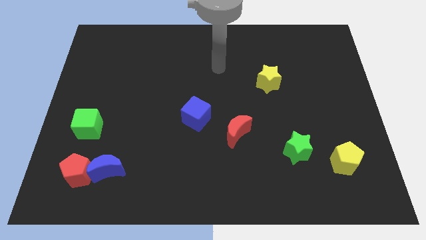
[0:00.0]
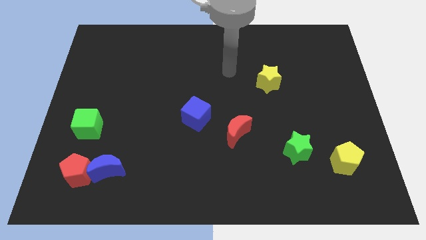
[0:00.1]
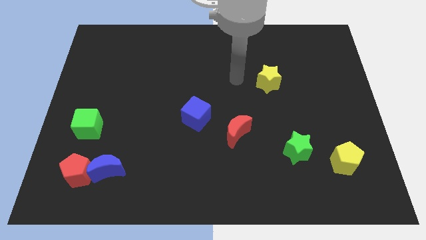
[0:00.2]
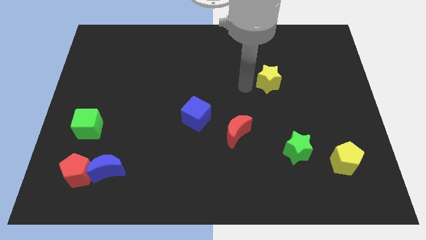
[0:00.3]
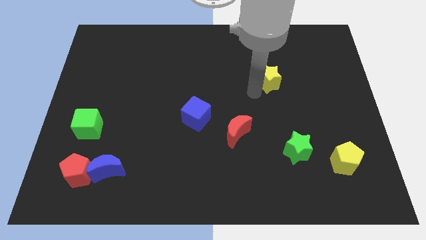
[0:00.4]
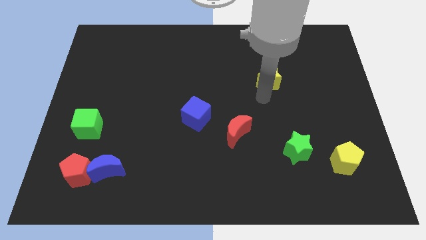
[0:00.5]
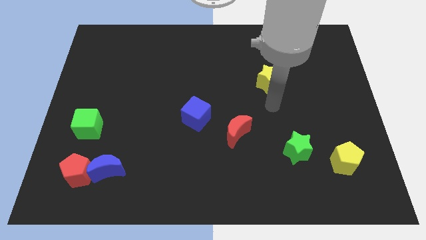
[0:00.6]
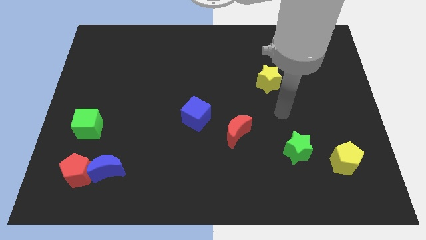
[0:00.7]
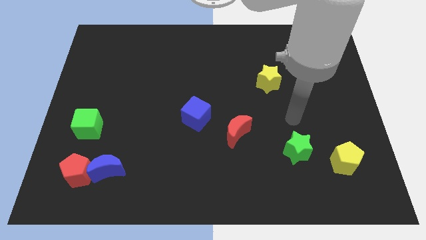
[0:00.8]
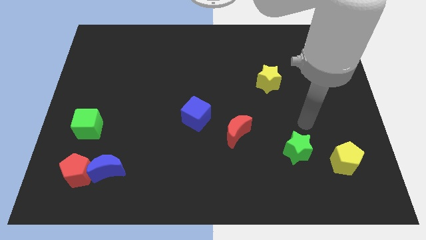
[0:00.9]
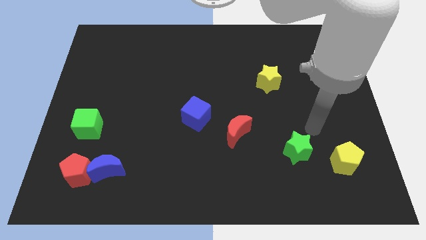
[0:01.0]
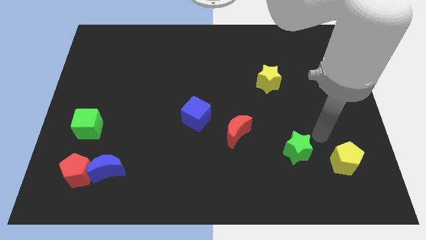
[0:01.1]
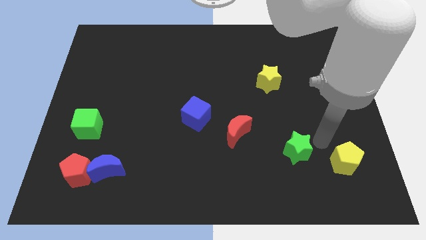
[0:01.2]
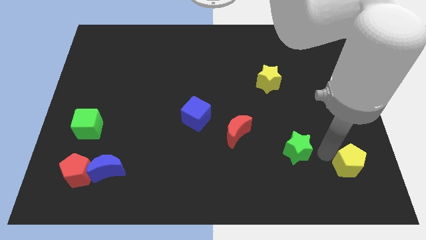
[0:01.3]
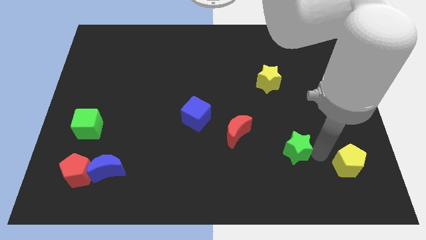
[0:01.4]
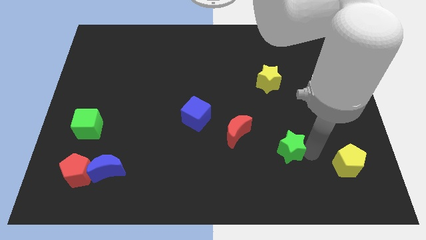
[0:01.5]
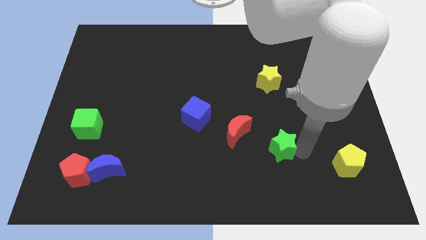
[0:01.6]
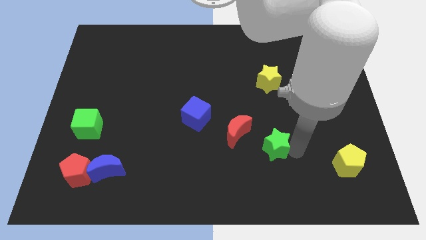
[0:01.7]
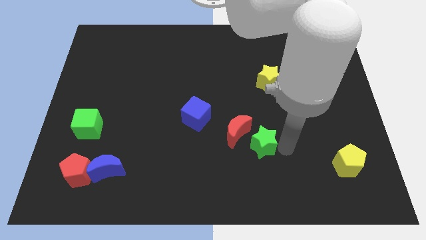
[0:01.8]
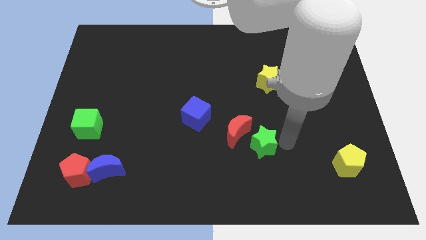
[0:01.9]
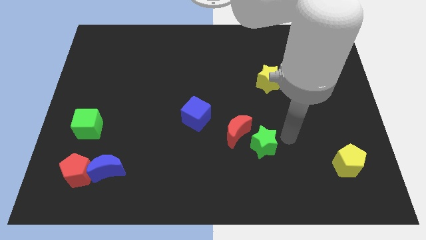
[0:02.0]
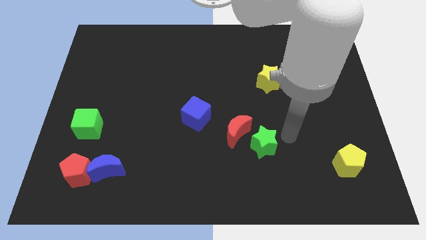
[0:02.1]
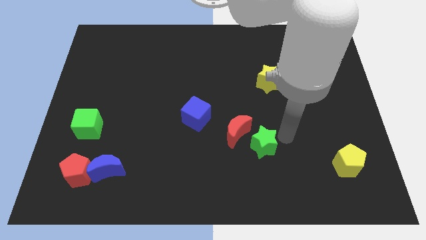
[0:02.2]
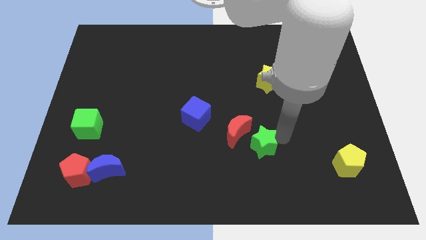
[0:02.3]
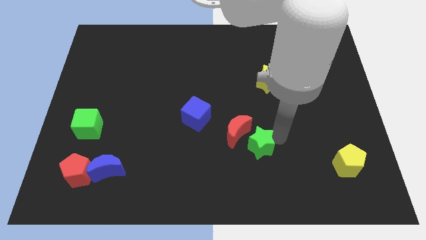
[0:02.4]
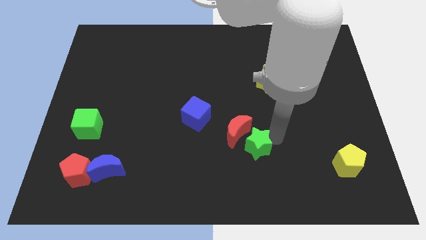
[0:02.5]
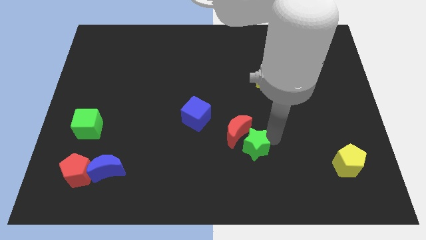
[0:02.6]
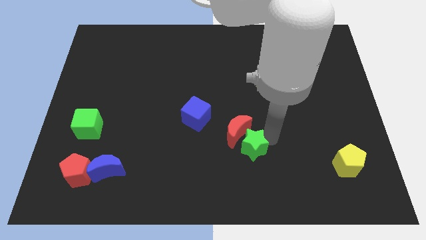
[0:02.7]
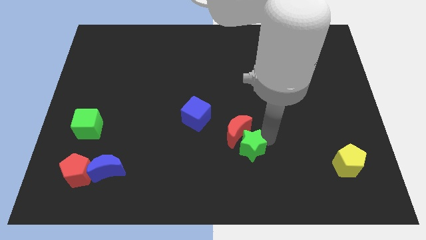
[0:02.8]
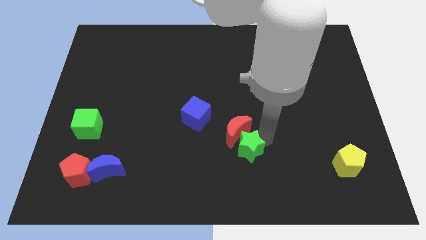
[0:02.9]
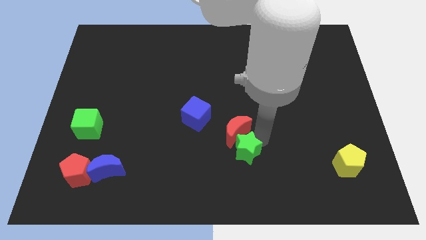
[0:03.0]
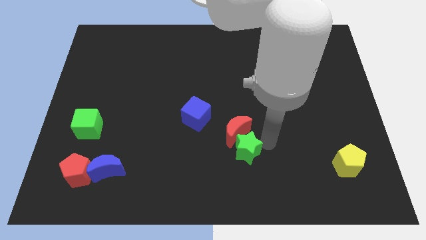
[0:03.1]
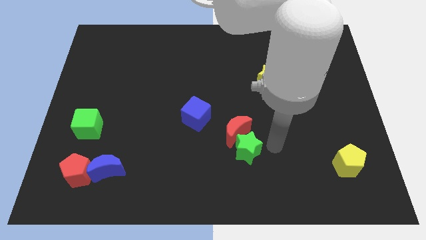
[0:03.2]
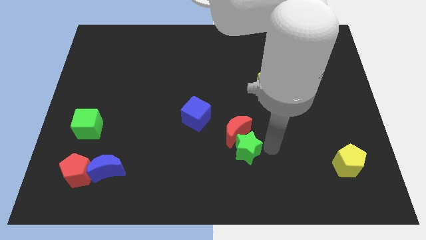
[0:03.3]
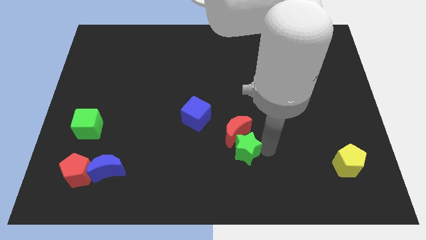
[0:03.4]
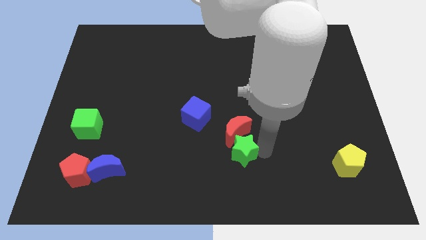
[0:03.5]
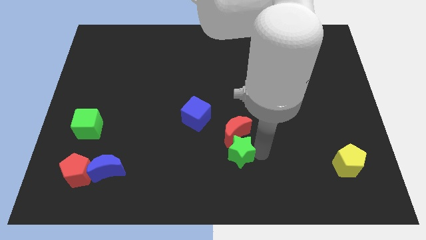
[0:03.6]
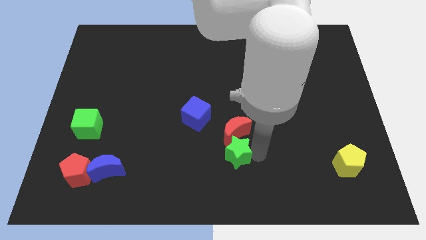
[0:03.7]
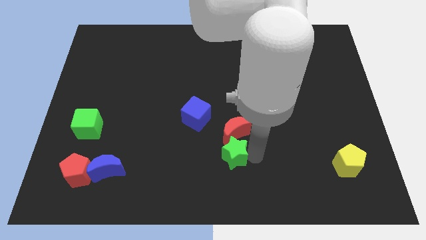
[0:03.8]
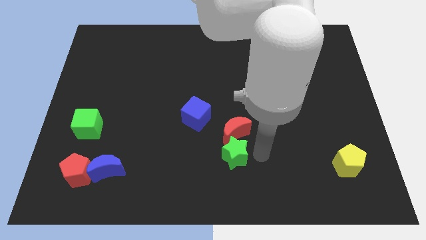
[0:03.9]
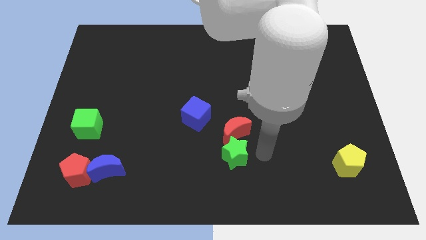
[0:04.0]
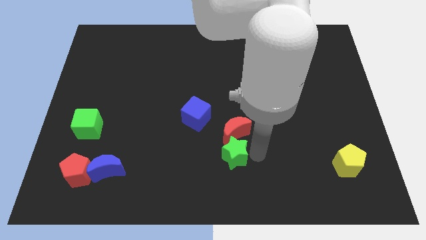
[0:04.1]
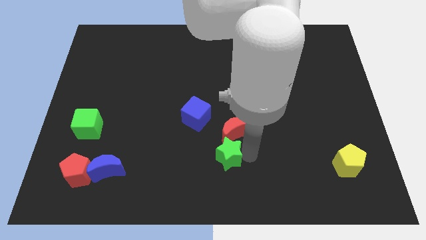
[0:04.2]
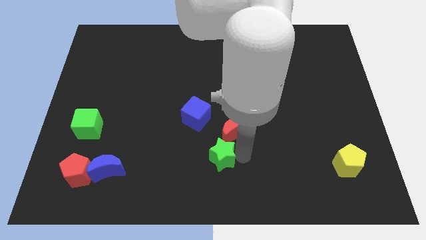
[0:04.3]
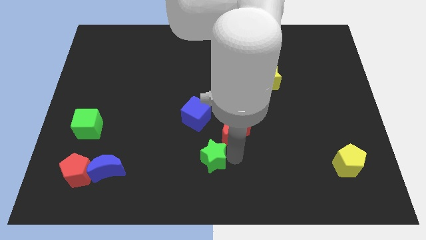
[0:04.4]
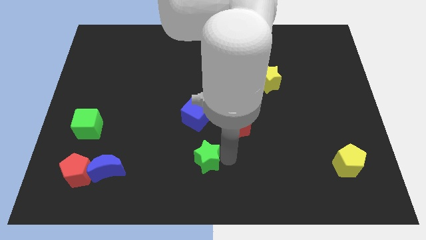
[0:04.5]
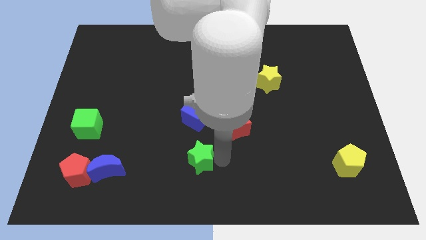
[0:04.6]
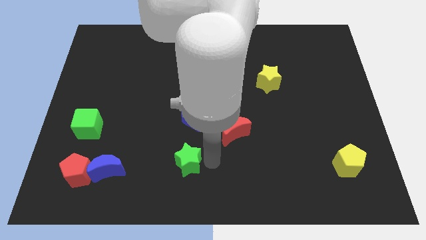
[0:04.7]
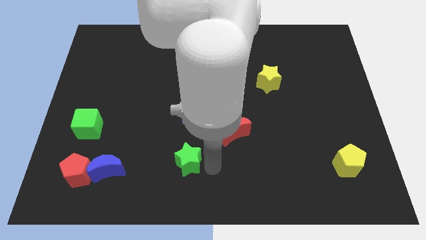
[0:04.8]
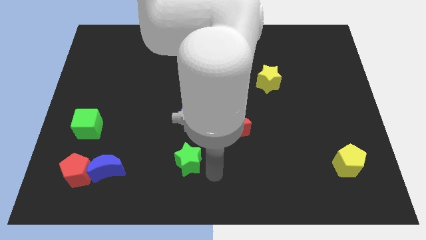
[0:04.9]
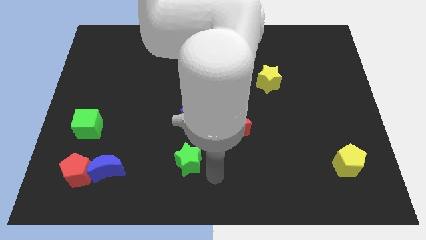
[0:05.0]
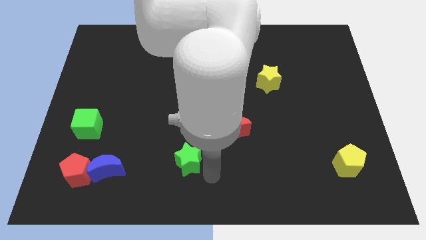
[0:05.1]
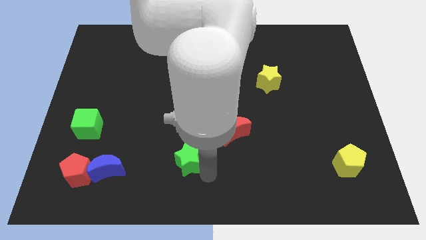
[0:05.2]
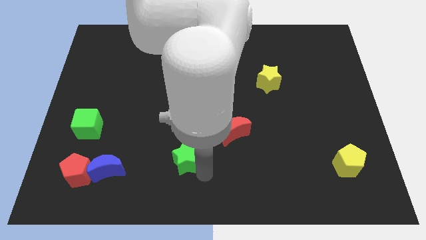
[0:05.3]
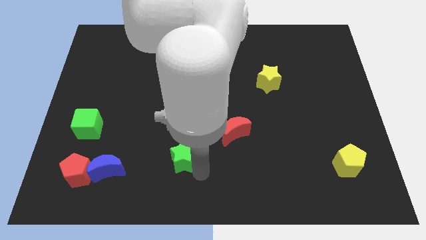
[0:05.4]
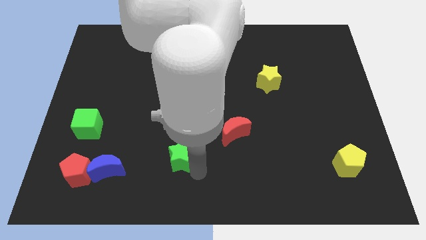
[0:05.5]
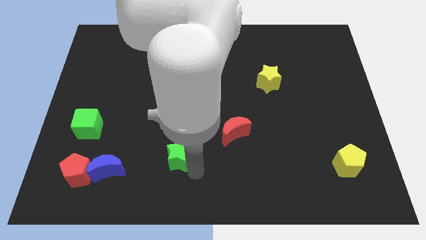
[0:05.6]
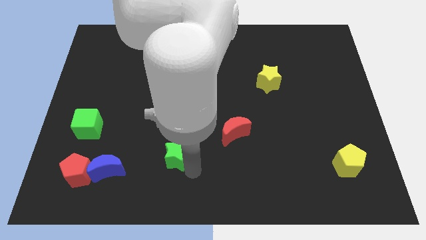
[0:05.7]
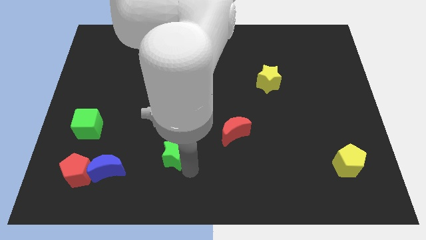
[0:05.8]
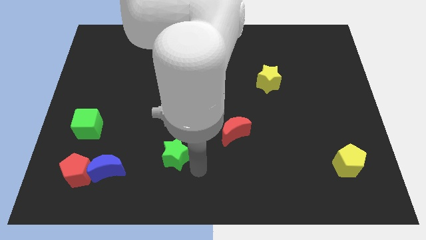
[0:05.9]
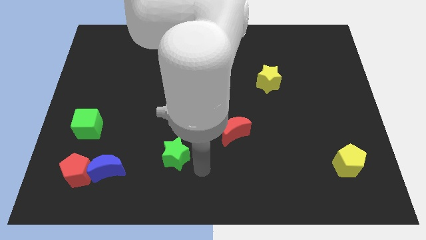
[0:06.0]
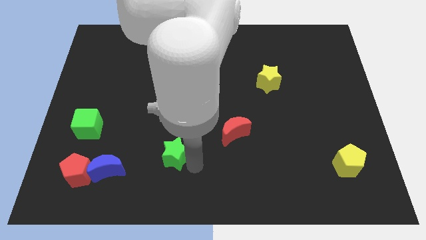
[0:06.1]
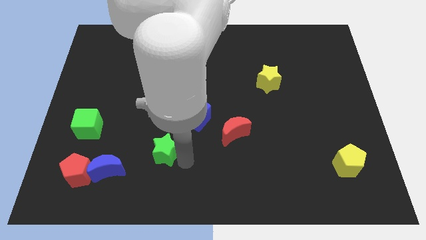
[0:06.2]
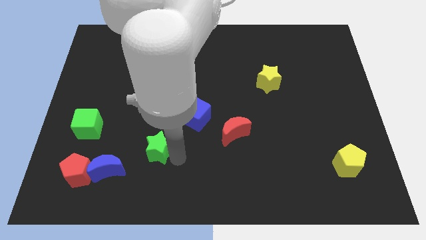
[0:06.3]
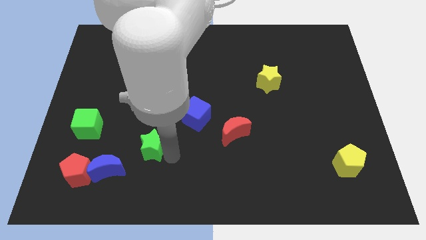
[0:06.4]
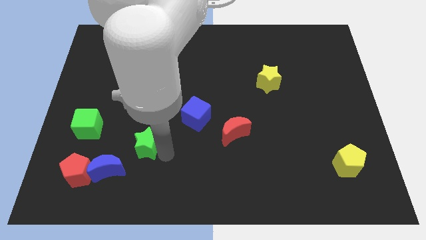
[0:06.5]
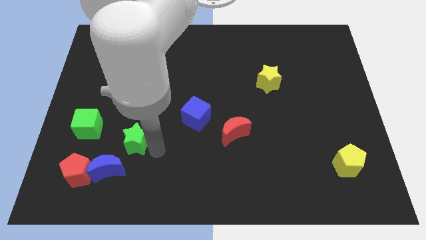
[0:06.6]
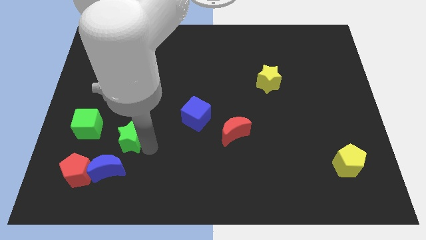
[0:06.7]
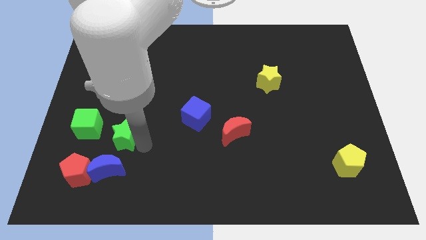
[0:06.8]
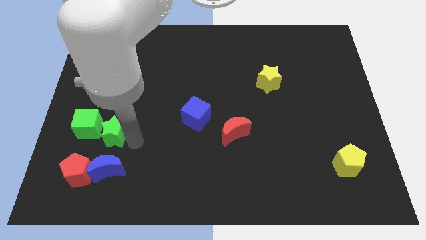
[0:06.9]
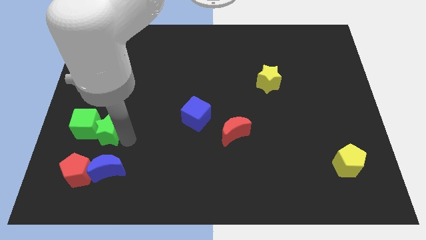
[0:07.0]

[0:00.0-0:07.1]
push the green star next to the green cube
